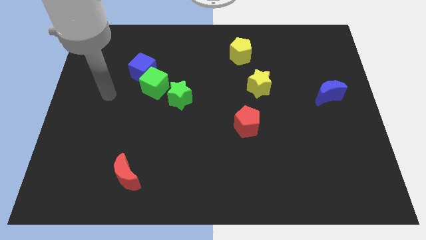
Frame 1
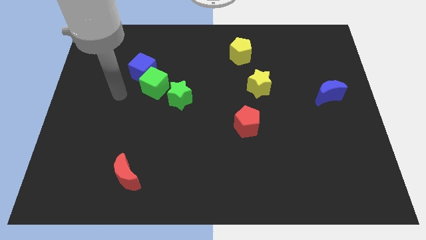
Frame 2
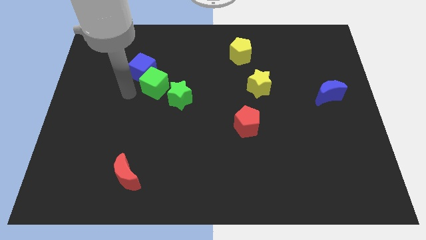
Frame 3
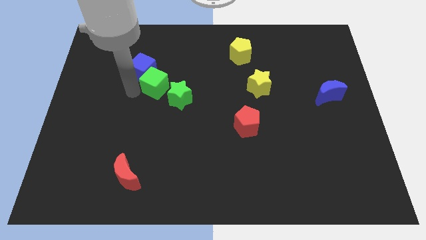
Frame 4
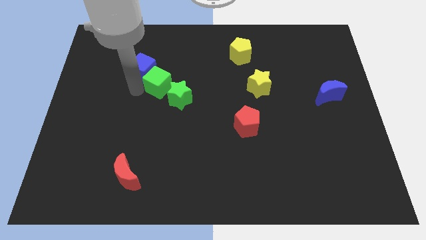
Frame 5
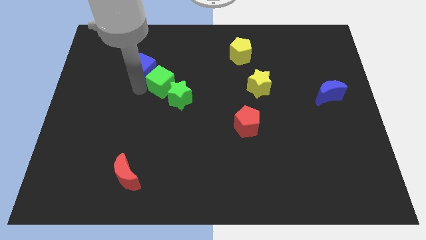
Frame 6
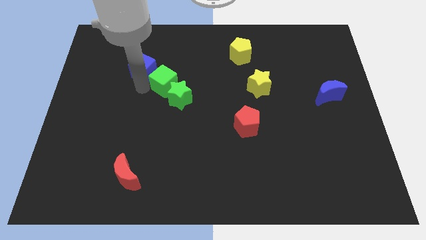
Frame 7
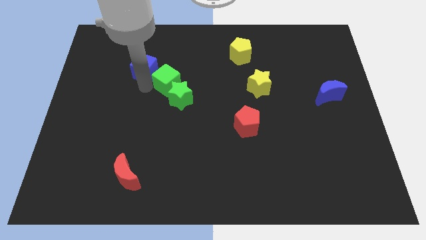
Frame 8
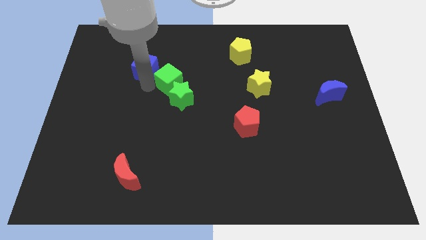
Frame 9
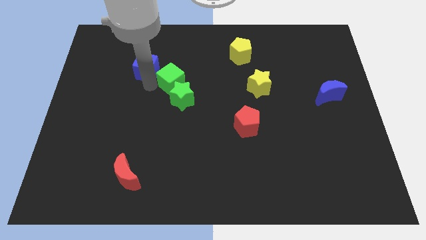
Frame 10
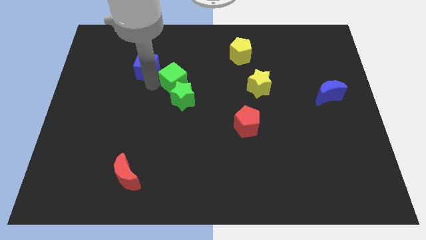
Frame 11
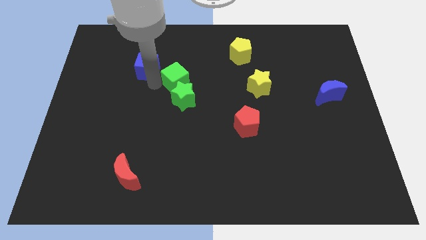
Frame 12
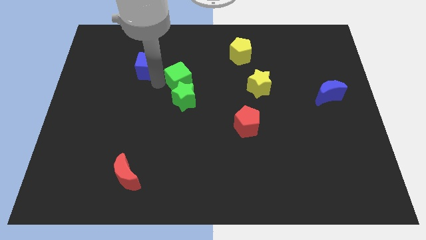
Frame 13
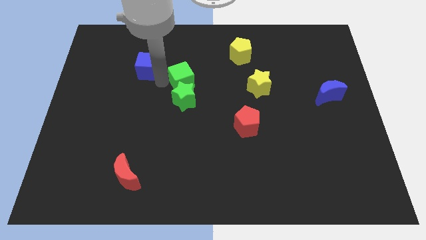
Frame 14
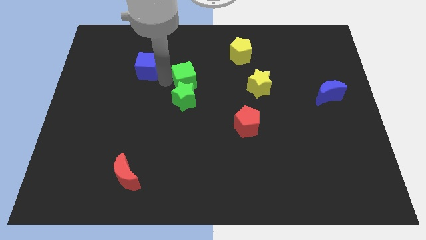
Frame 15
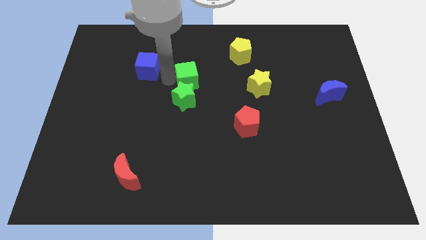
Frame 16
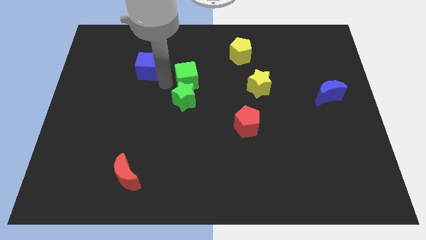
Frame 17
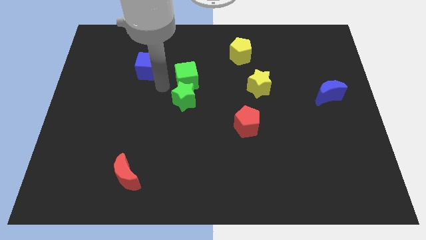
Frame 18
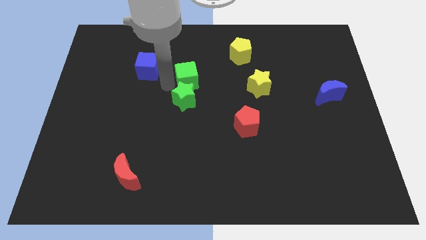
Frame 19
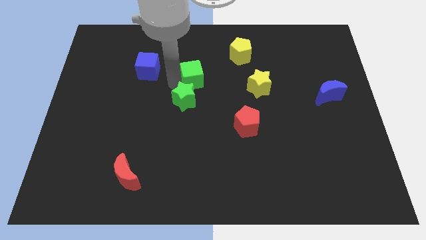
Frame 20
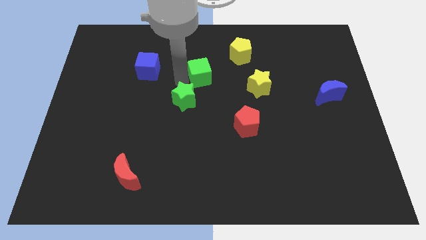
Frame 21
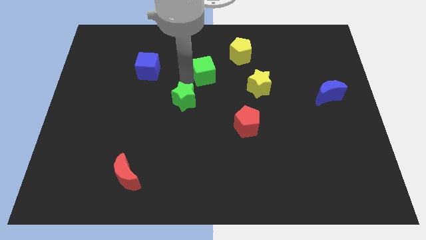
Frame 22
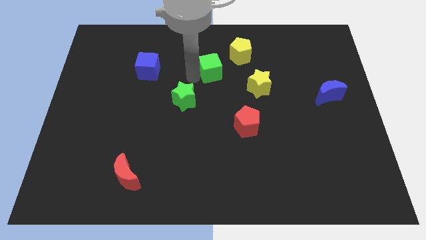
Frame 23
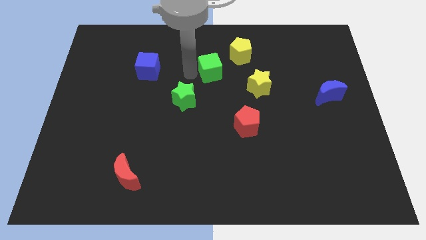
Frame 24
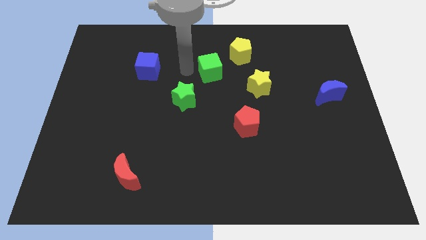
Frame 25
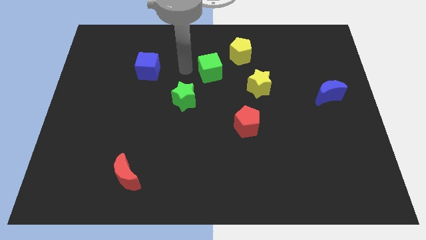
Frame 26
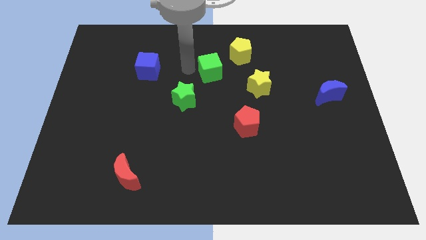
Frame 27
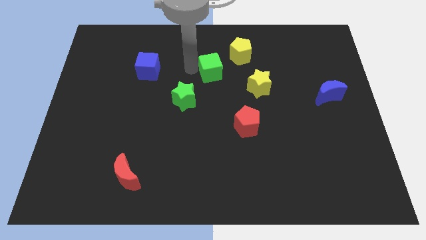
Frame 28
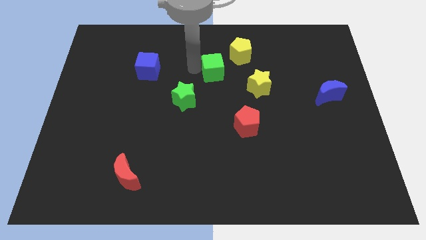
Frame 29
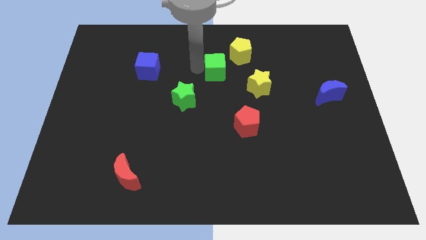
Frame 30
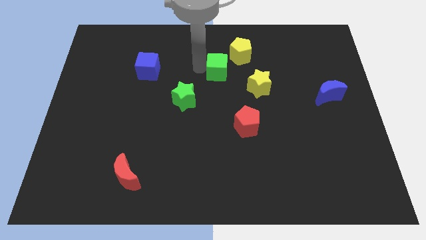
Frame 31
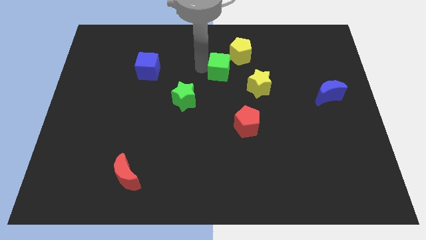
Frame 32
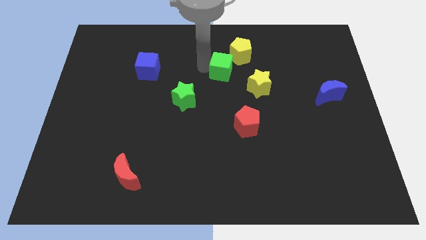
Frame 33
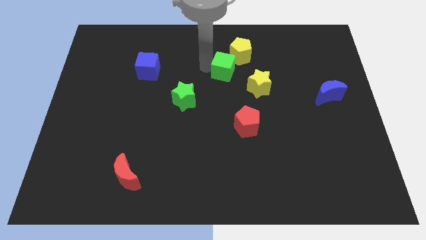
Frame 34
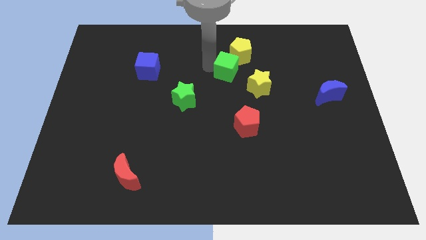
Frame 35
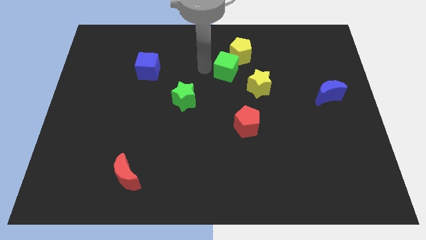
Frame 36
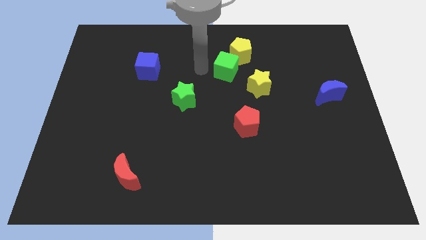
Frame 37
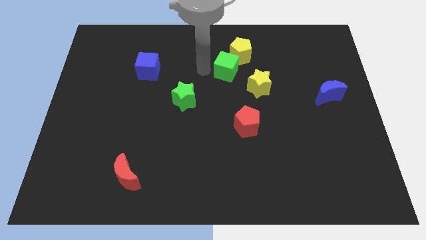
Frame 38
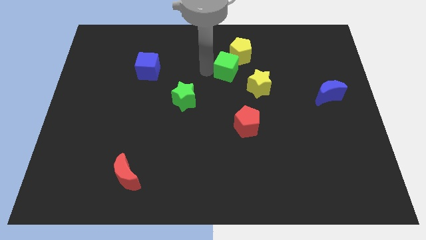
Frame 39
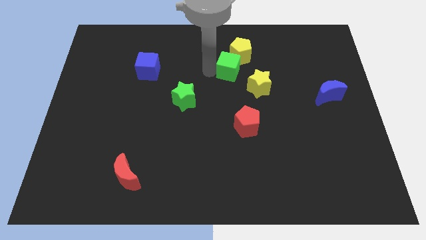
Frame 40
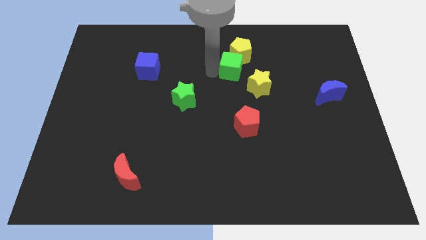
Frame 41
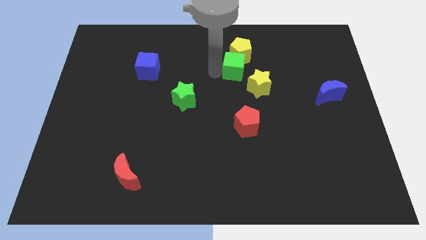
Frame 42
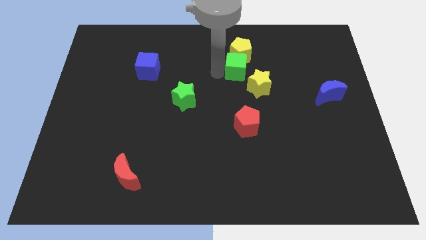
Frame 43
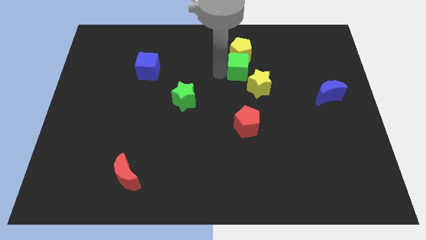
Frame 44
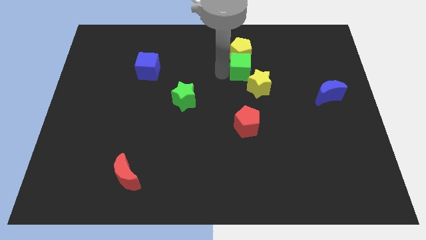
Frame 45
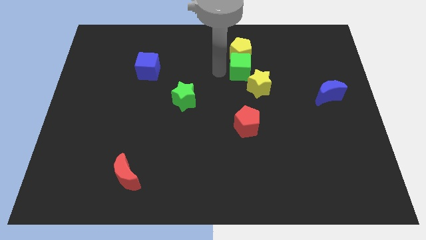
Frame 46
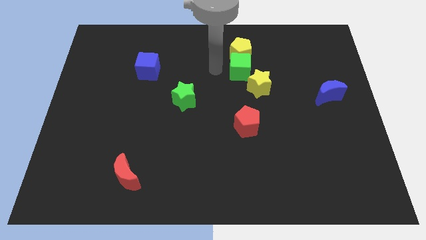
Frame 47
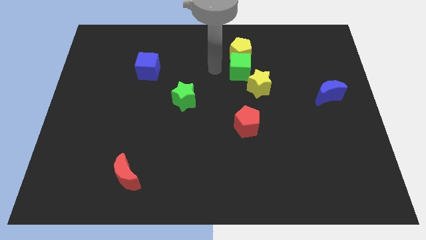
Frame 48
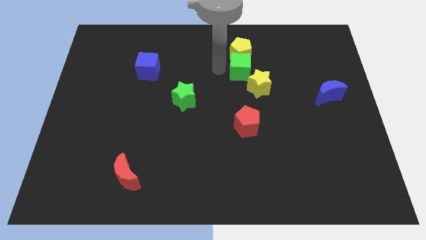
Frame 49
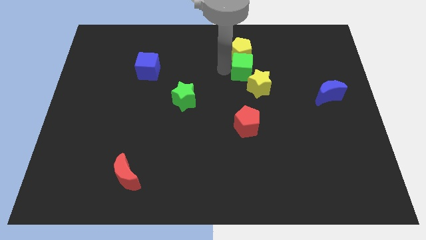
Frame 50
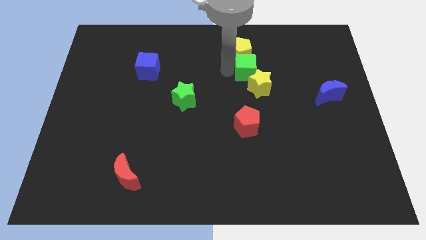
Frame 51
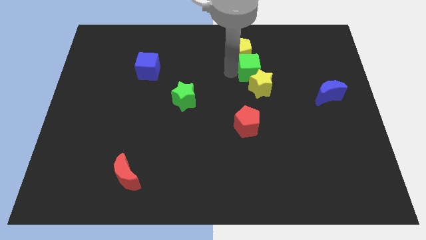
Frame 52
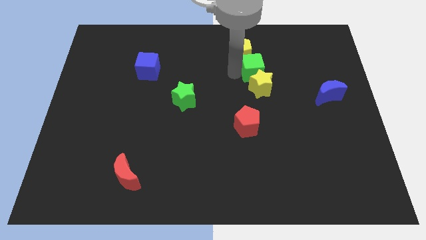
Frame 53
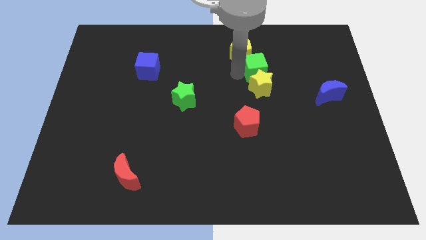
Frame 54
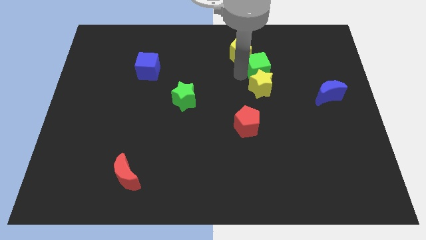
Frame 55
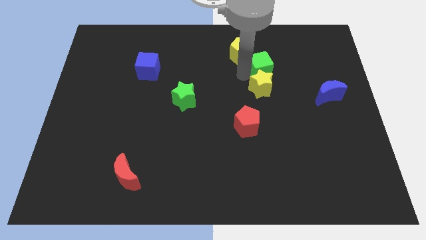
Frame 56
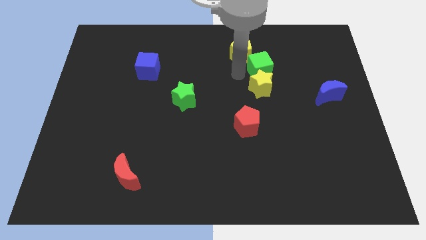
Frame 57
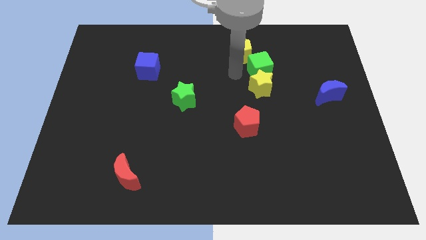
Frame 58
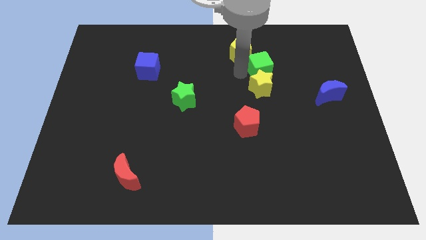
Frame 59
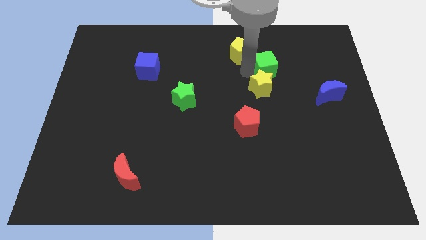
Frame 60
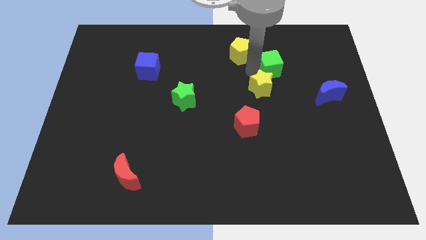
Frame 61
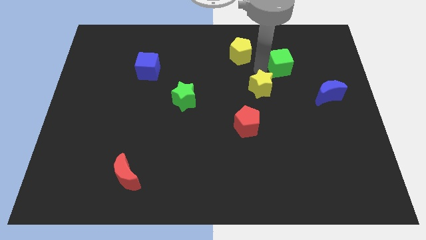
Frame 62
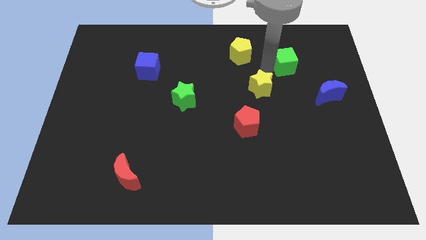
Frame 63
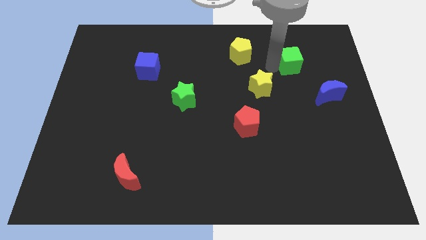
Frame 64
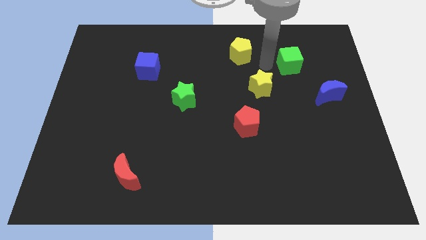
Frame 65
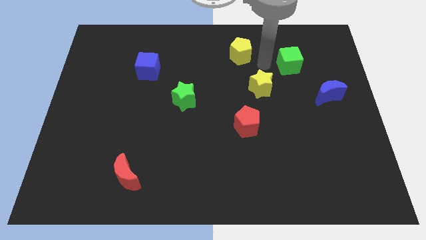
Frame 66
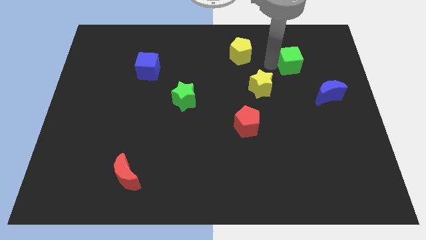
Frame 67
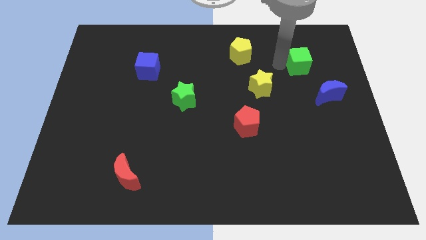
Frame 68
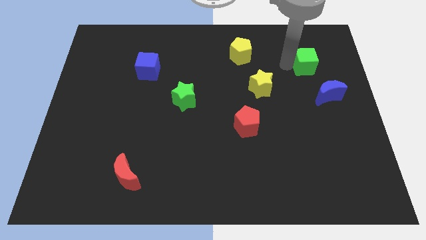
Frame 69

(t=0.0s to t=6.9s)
push the green cube to the top side of the blue moon

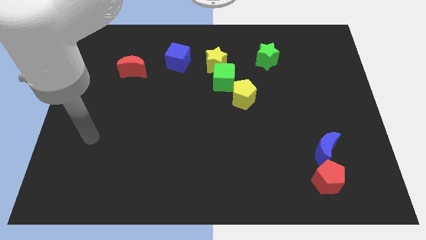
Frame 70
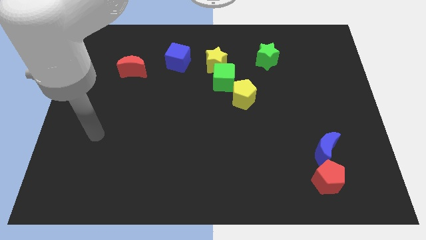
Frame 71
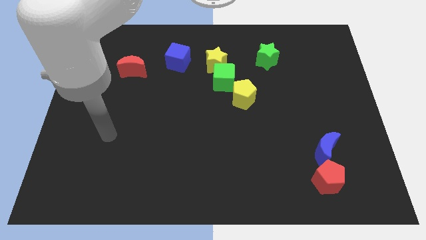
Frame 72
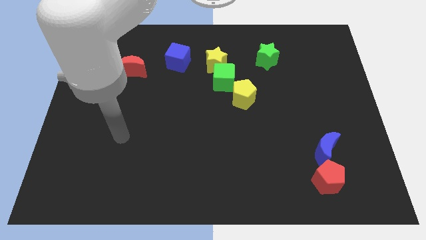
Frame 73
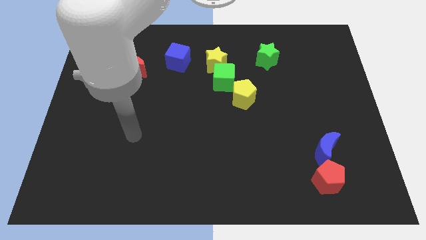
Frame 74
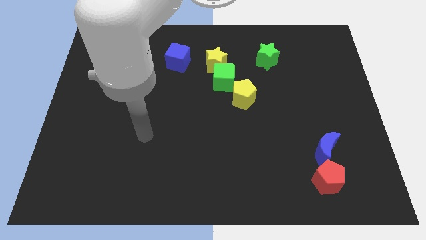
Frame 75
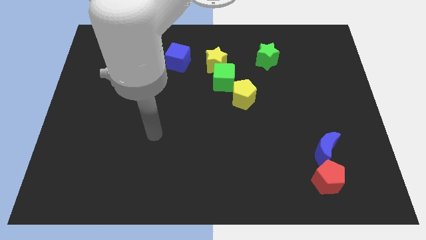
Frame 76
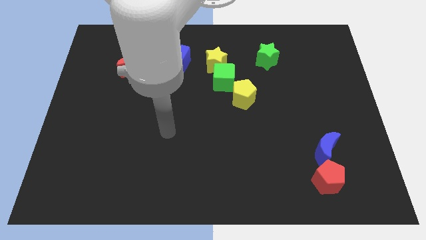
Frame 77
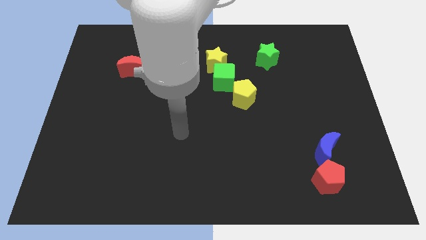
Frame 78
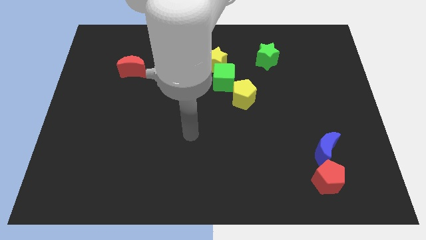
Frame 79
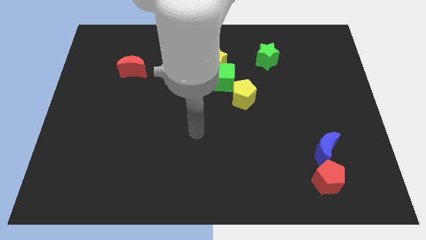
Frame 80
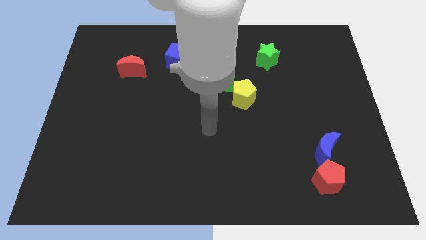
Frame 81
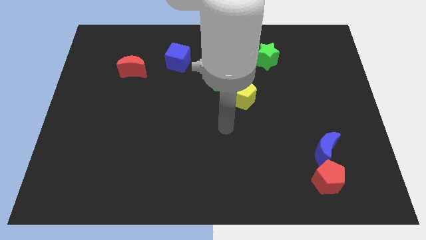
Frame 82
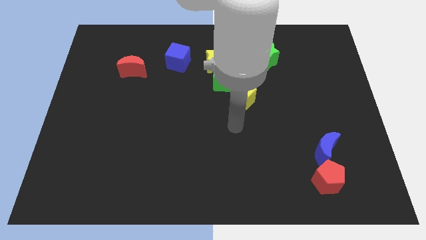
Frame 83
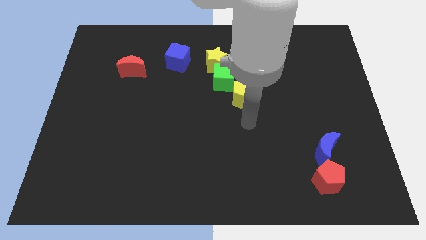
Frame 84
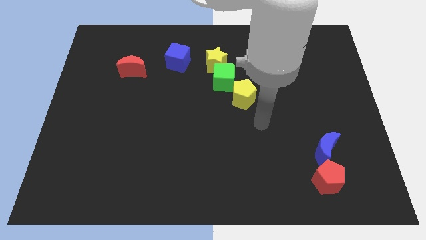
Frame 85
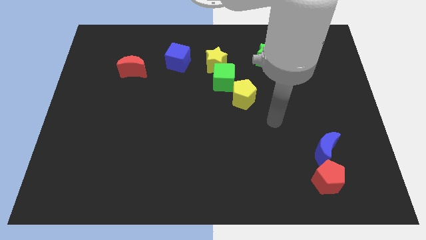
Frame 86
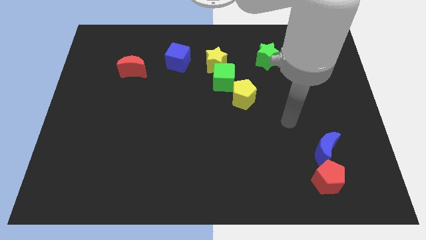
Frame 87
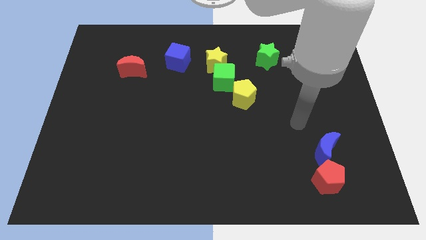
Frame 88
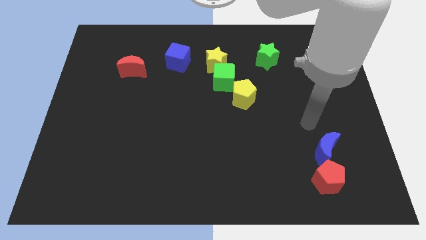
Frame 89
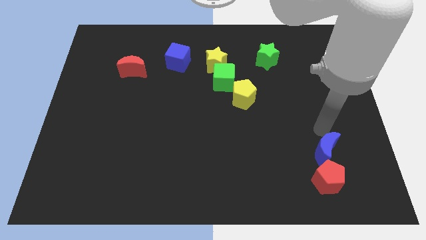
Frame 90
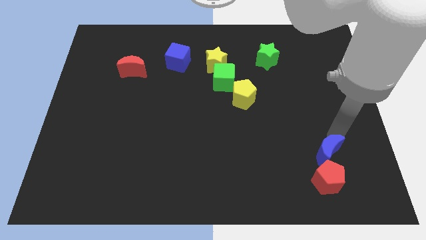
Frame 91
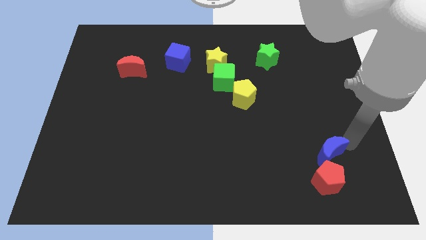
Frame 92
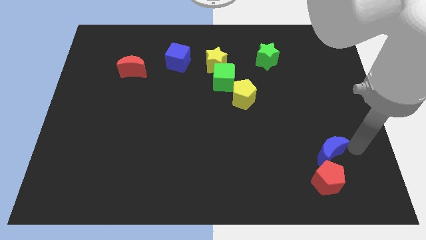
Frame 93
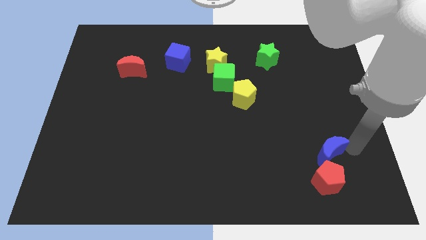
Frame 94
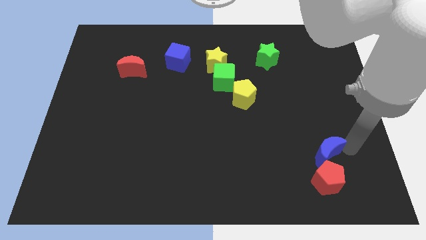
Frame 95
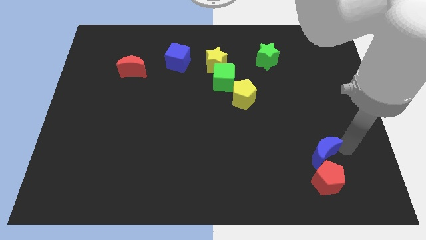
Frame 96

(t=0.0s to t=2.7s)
put the blue moon to the top left side of the red pentagon
